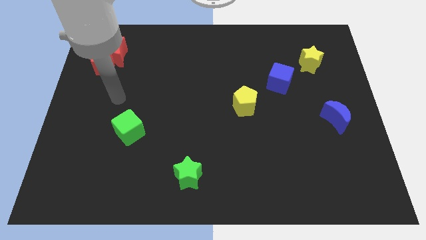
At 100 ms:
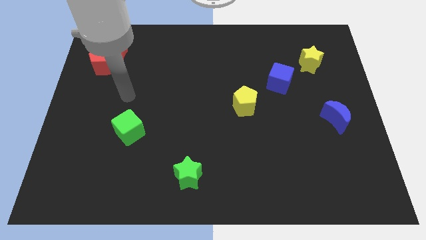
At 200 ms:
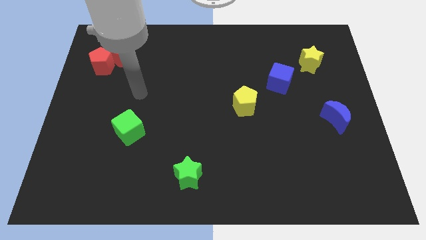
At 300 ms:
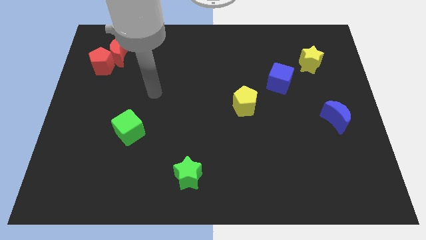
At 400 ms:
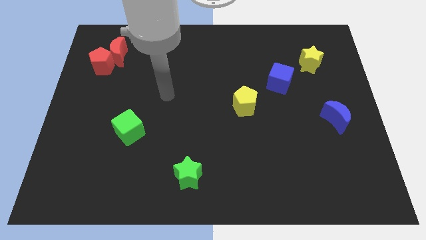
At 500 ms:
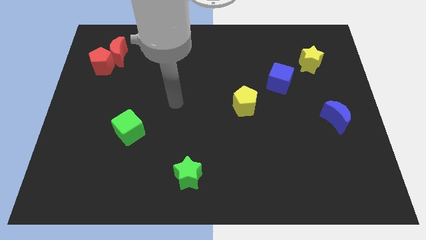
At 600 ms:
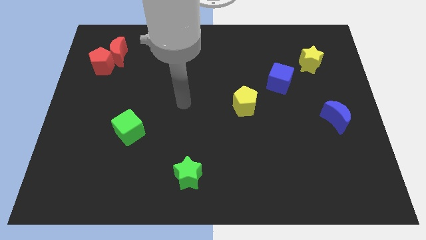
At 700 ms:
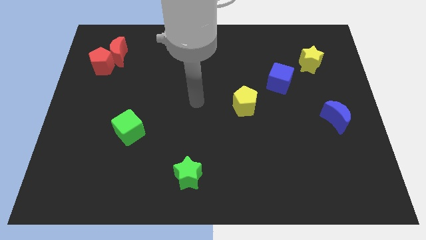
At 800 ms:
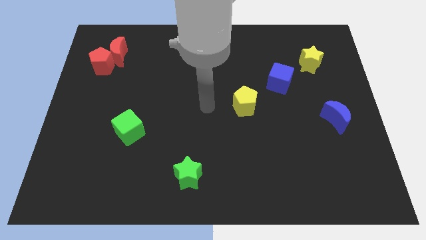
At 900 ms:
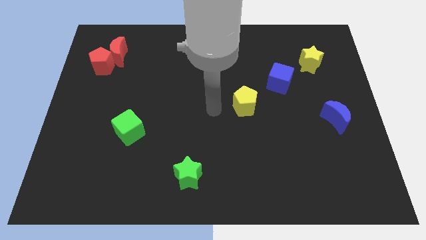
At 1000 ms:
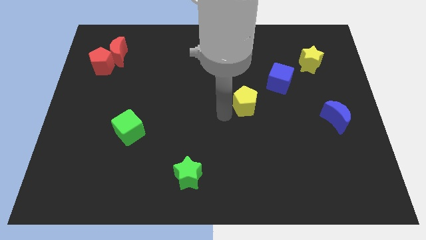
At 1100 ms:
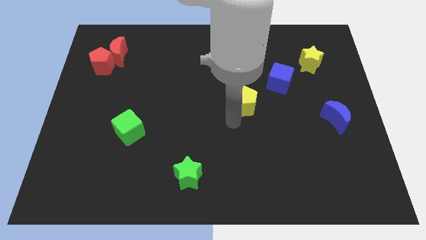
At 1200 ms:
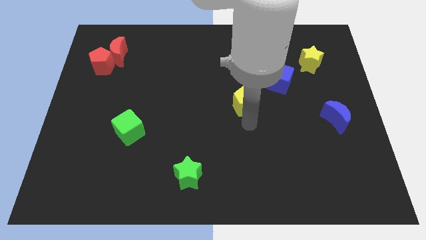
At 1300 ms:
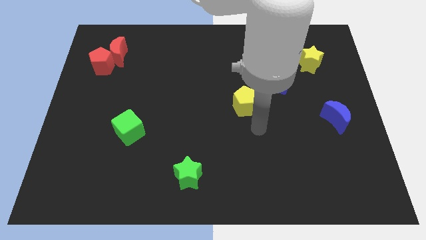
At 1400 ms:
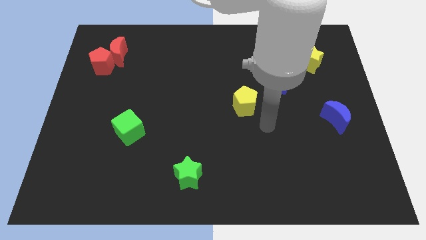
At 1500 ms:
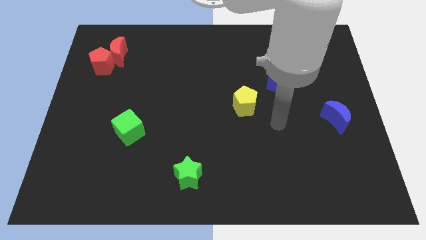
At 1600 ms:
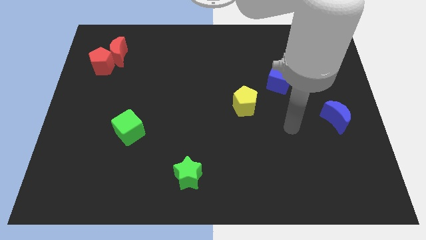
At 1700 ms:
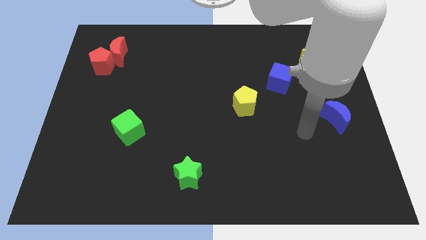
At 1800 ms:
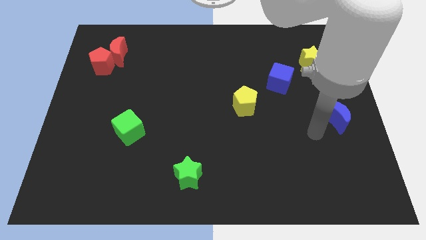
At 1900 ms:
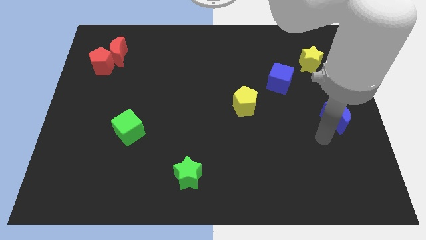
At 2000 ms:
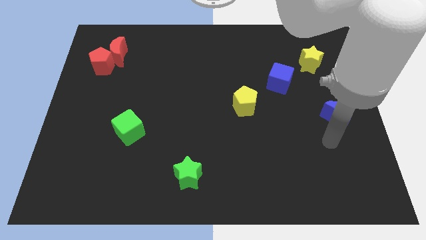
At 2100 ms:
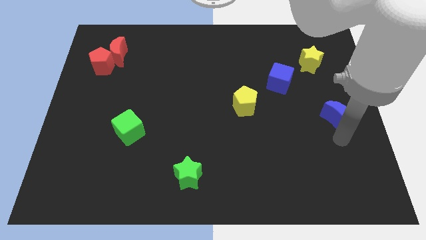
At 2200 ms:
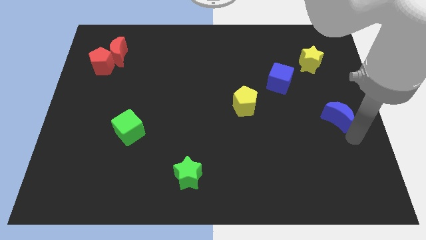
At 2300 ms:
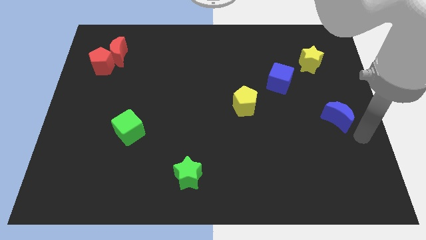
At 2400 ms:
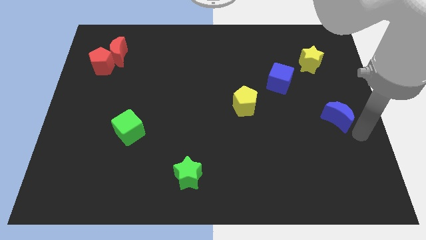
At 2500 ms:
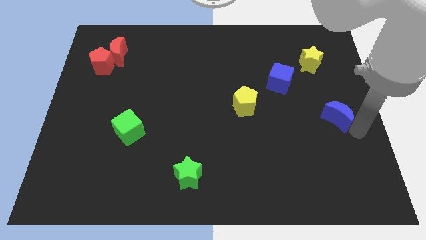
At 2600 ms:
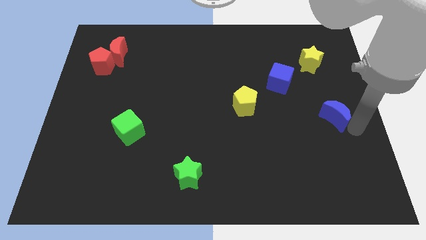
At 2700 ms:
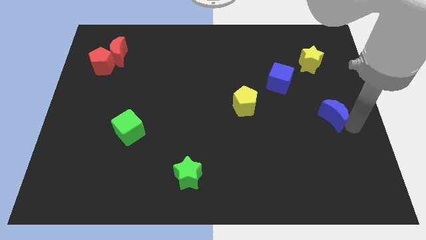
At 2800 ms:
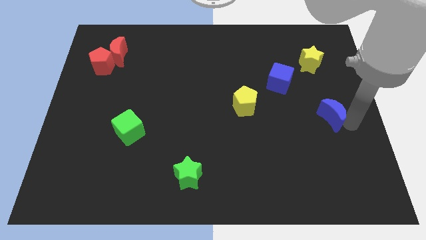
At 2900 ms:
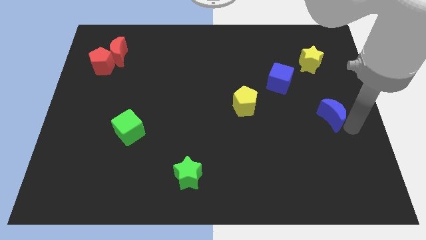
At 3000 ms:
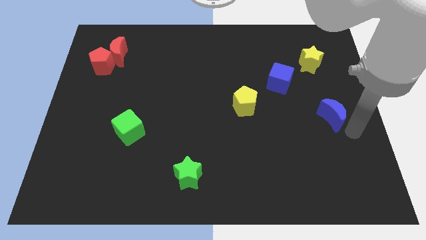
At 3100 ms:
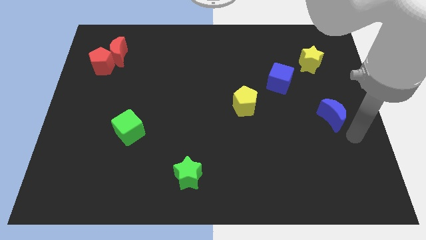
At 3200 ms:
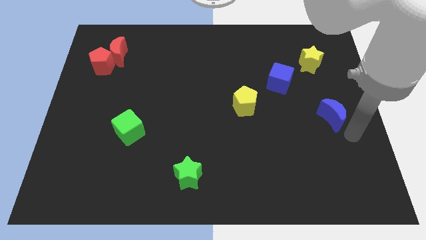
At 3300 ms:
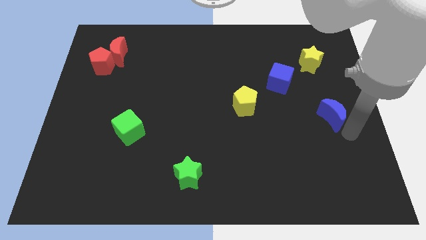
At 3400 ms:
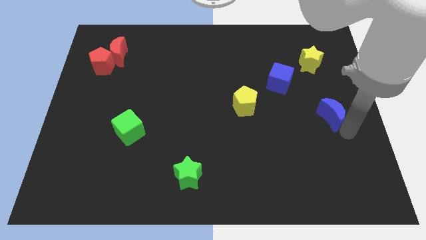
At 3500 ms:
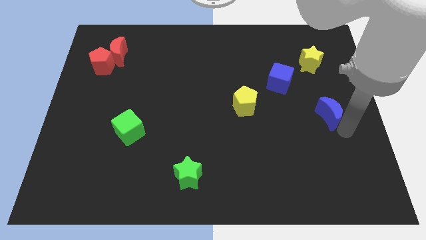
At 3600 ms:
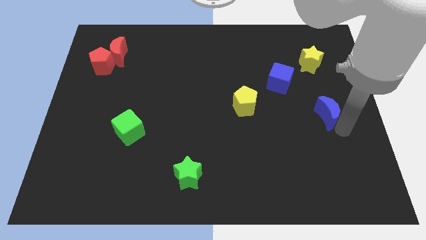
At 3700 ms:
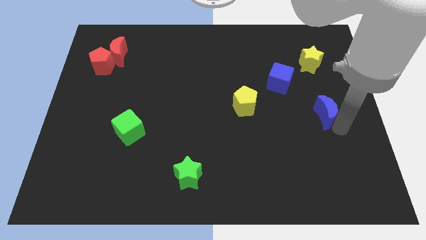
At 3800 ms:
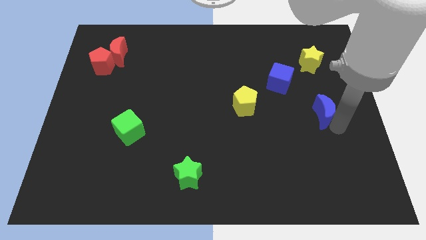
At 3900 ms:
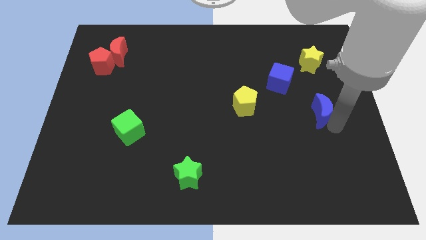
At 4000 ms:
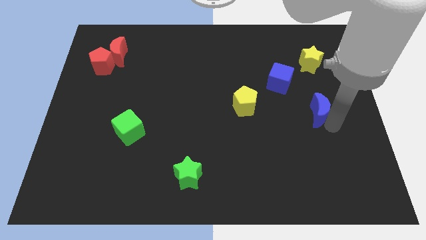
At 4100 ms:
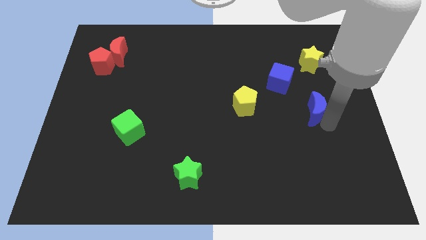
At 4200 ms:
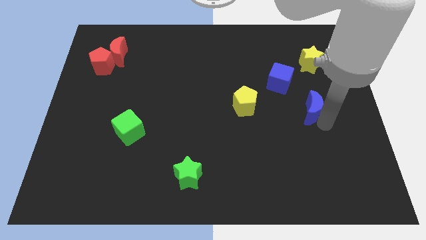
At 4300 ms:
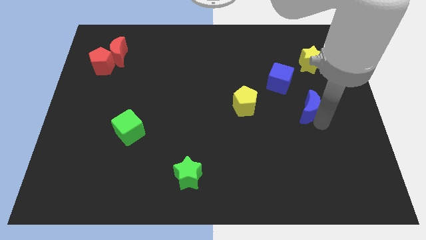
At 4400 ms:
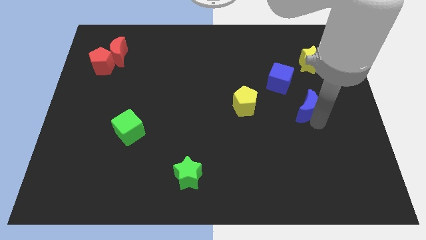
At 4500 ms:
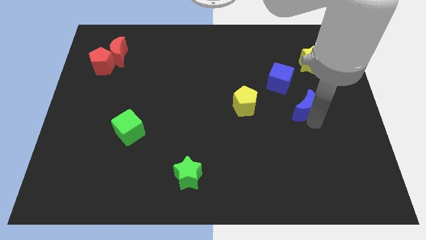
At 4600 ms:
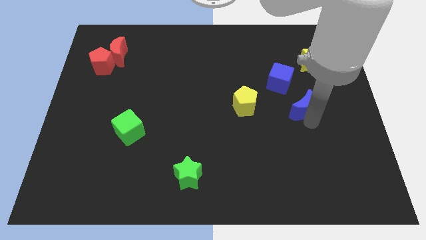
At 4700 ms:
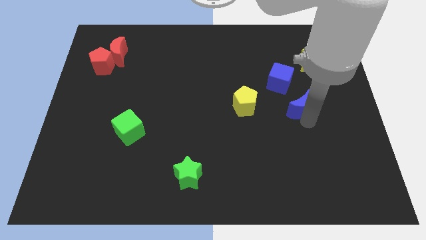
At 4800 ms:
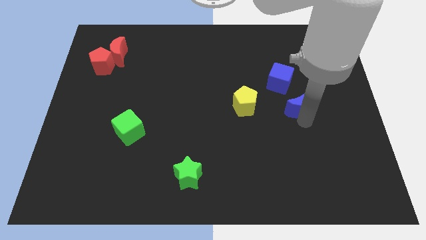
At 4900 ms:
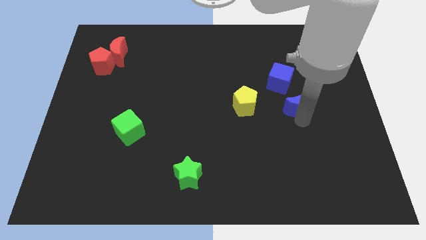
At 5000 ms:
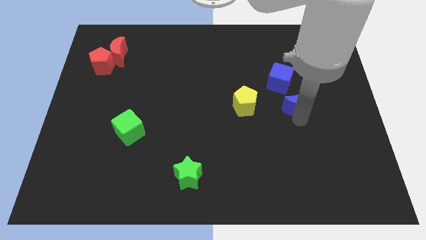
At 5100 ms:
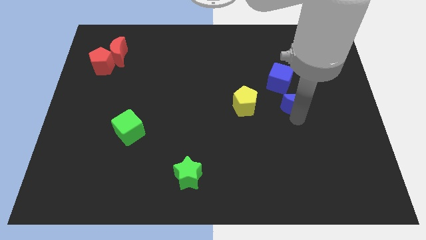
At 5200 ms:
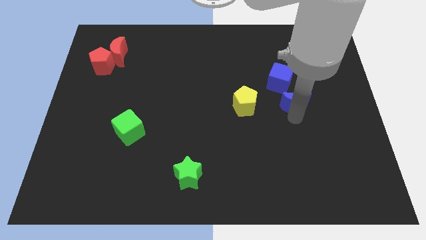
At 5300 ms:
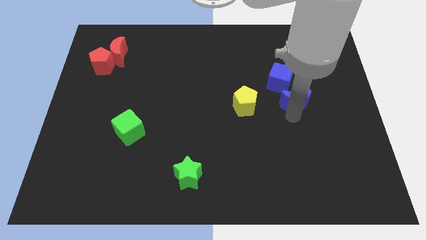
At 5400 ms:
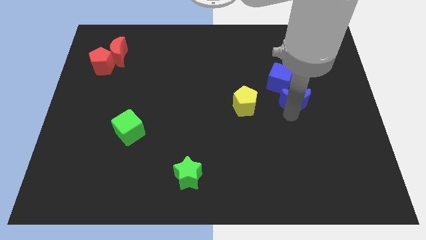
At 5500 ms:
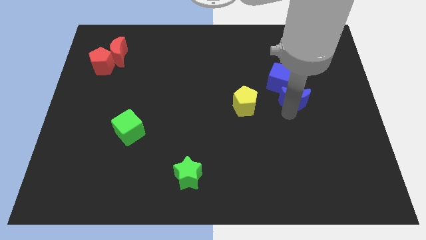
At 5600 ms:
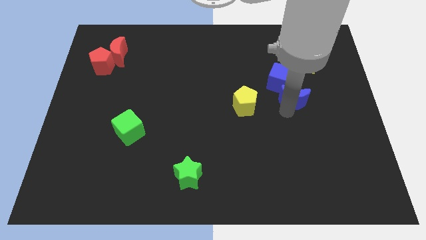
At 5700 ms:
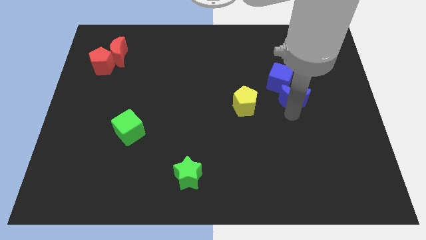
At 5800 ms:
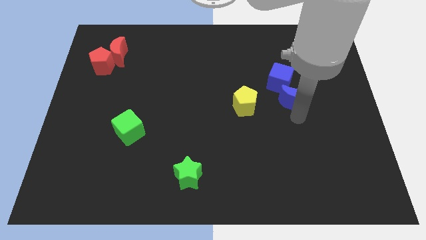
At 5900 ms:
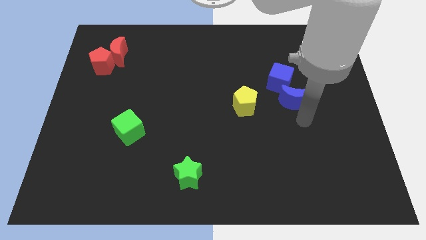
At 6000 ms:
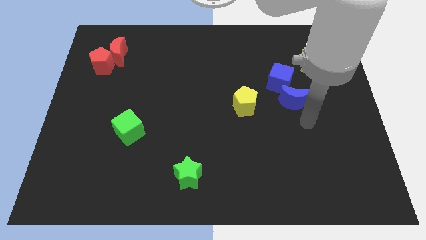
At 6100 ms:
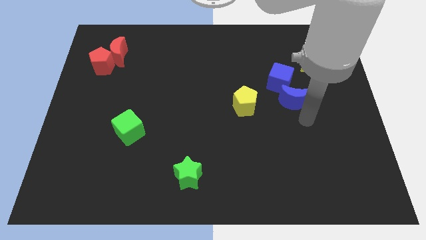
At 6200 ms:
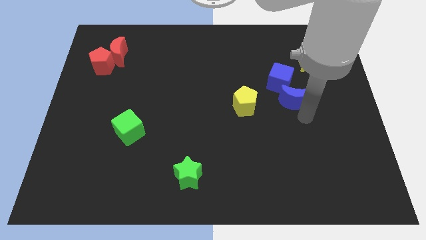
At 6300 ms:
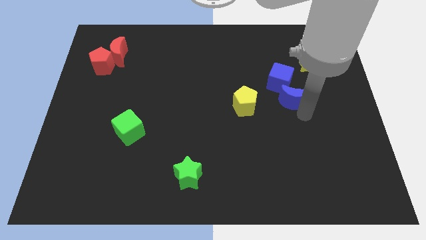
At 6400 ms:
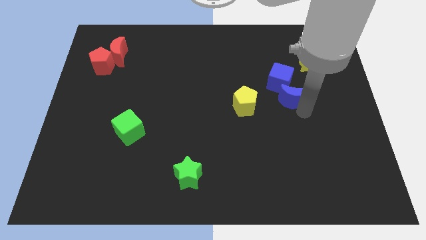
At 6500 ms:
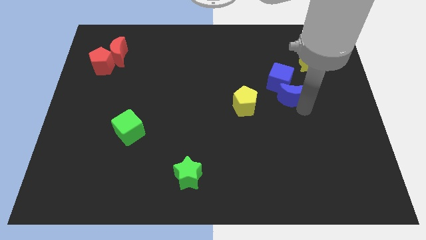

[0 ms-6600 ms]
push the blue moon to the blue cube

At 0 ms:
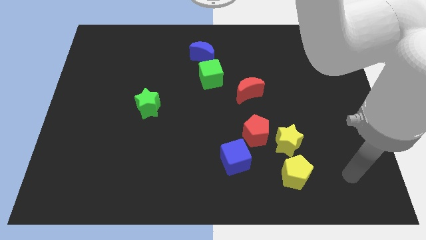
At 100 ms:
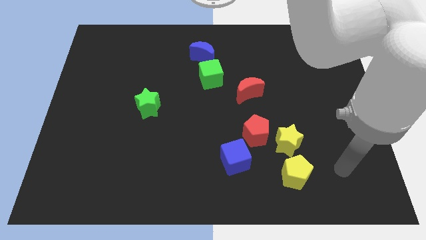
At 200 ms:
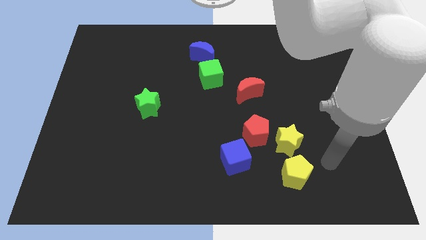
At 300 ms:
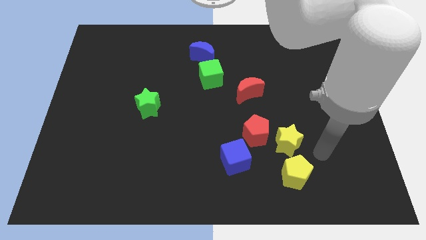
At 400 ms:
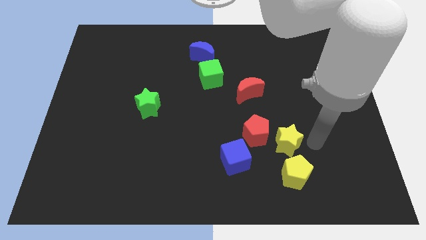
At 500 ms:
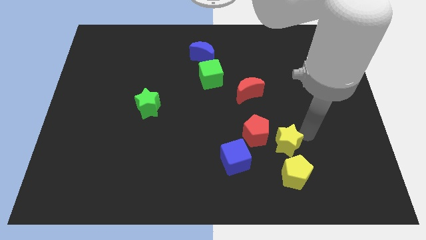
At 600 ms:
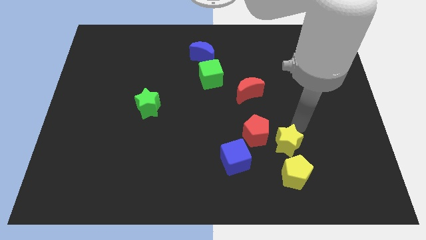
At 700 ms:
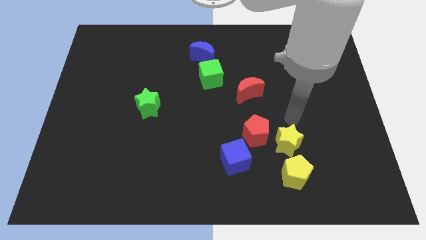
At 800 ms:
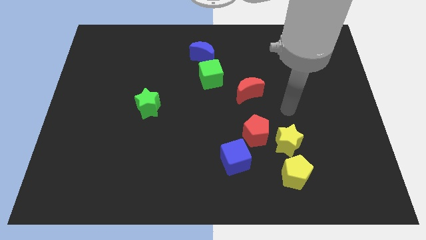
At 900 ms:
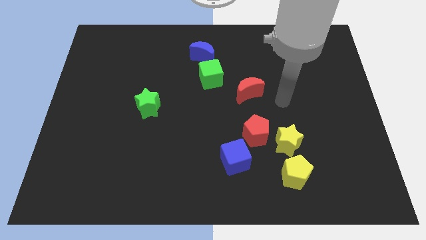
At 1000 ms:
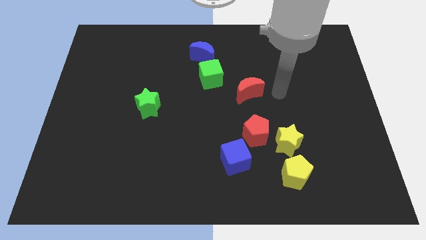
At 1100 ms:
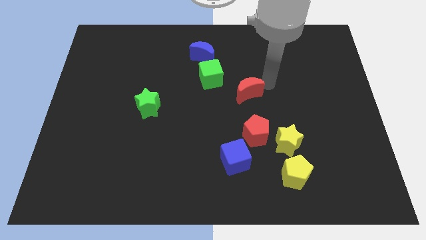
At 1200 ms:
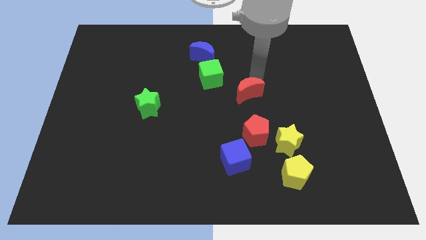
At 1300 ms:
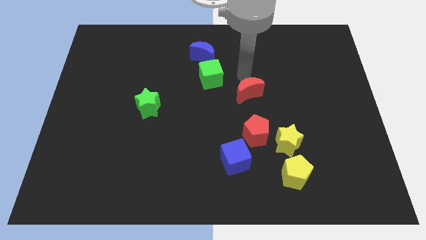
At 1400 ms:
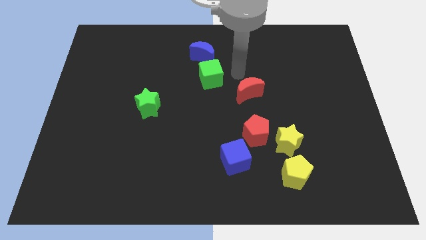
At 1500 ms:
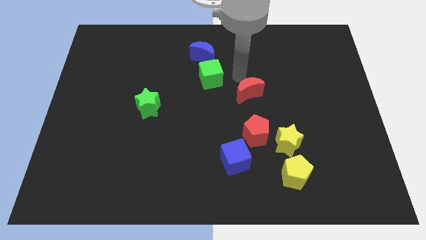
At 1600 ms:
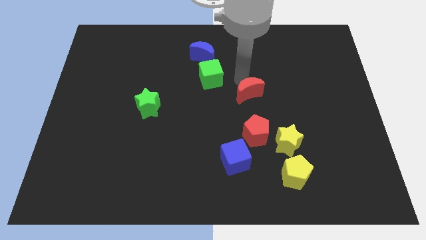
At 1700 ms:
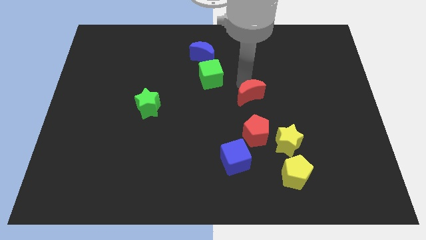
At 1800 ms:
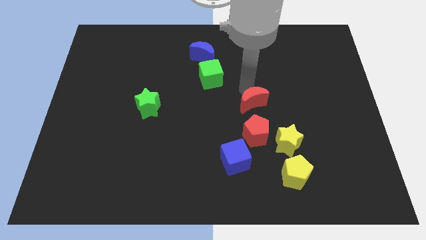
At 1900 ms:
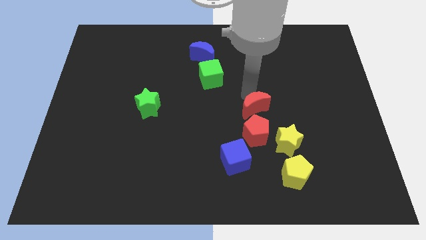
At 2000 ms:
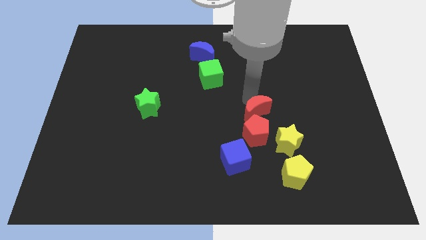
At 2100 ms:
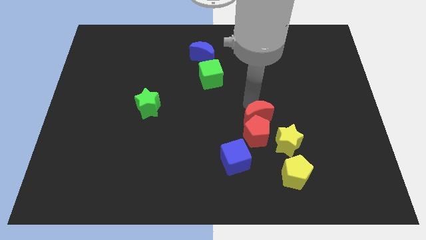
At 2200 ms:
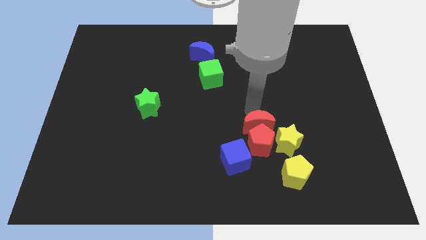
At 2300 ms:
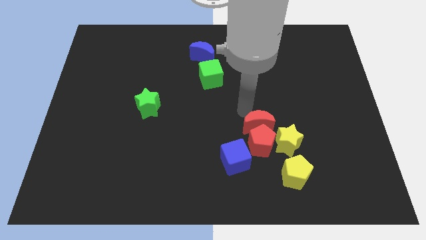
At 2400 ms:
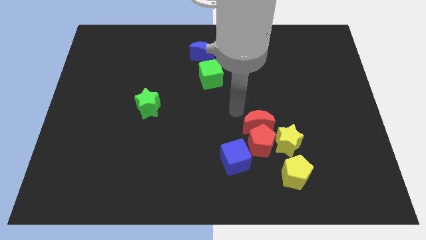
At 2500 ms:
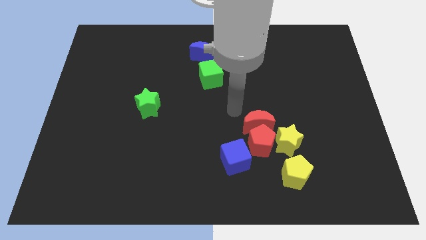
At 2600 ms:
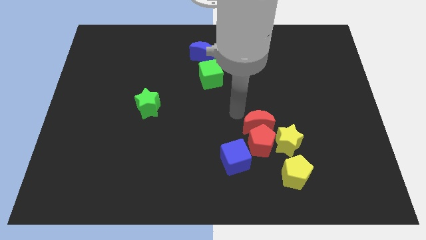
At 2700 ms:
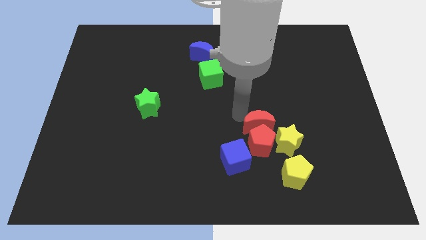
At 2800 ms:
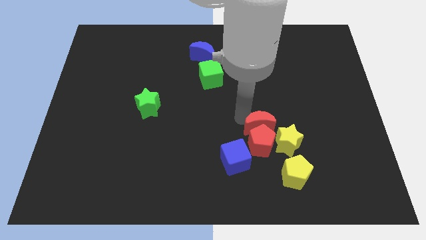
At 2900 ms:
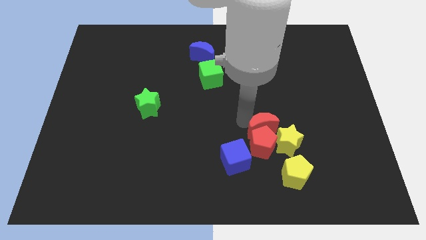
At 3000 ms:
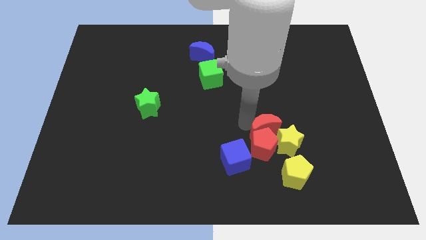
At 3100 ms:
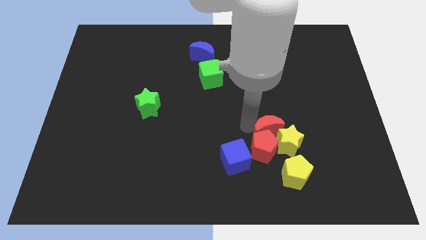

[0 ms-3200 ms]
put the red moon close to the yellow star
